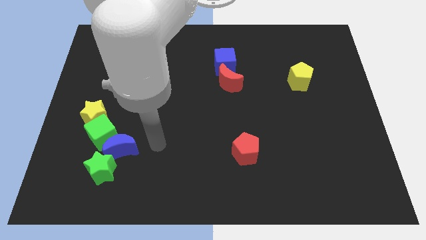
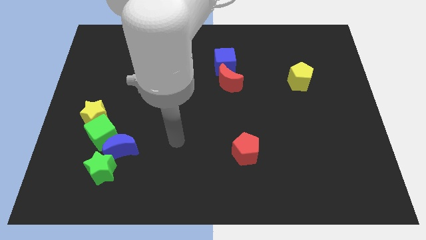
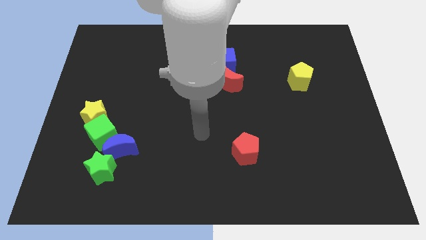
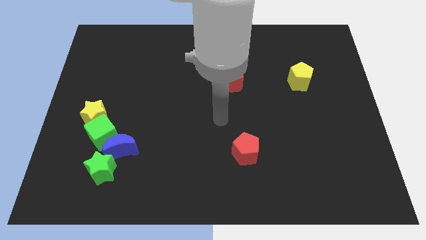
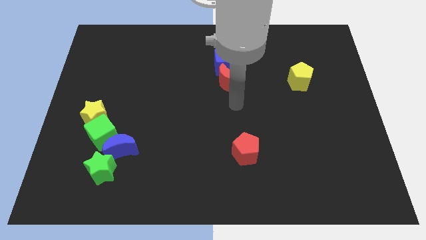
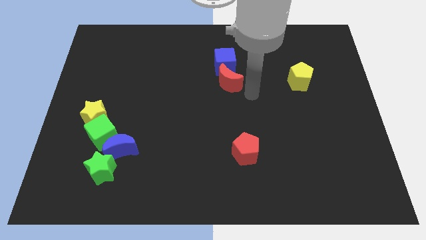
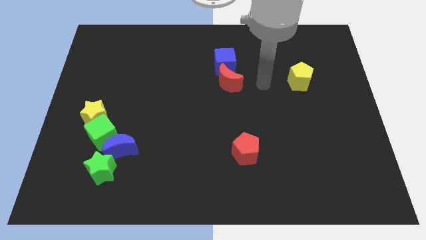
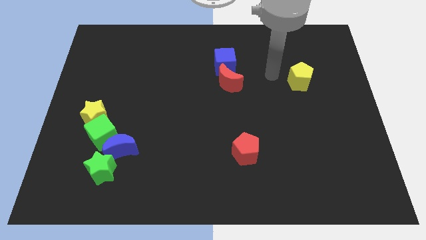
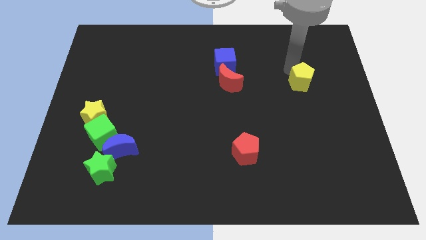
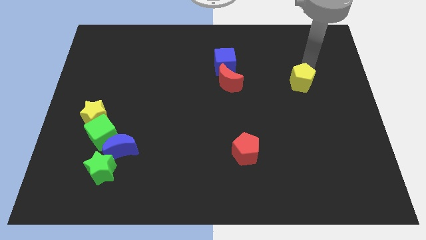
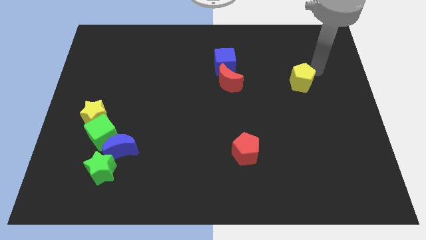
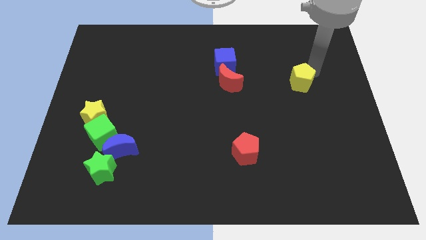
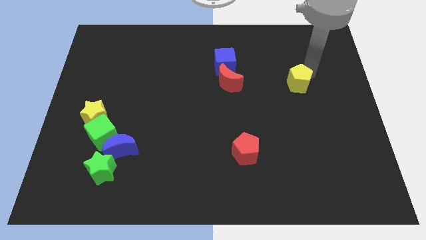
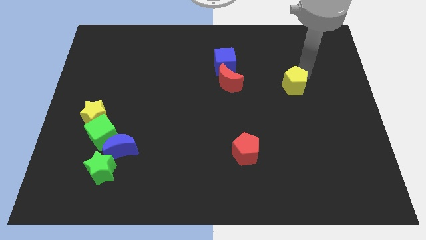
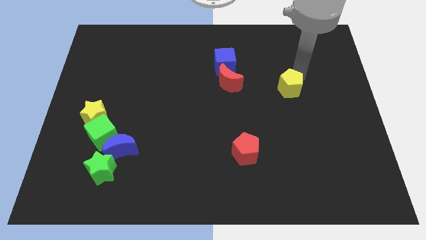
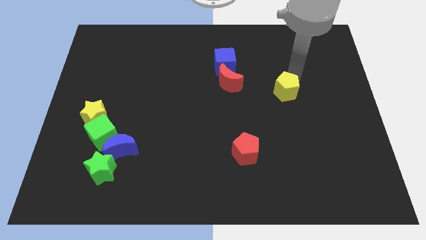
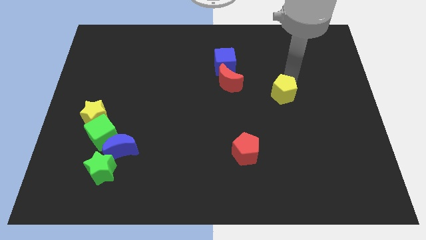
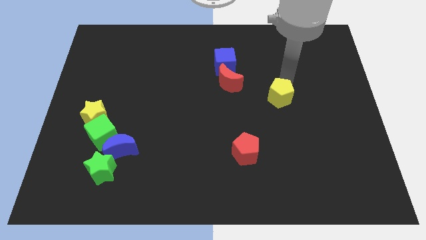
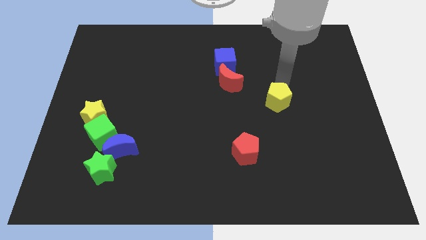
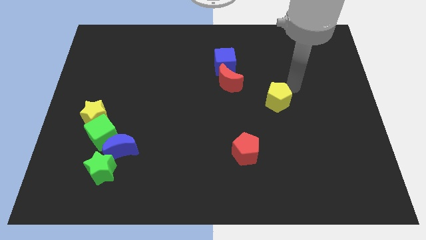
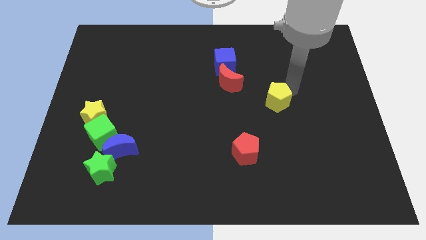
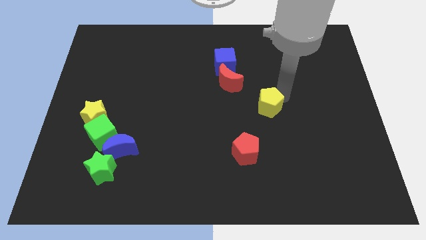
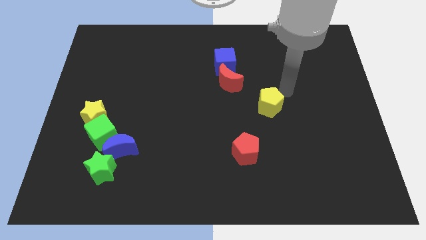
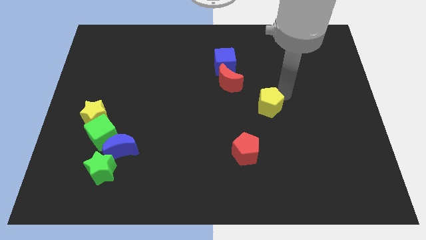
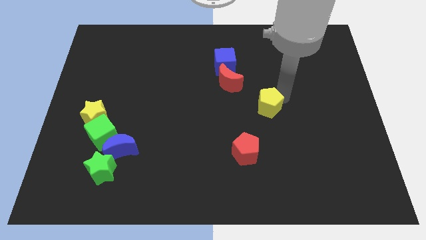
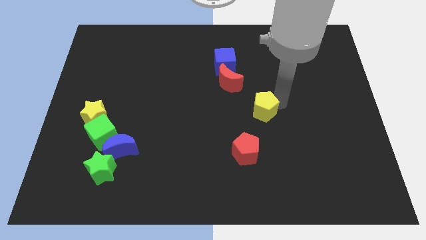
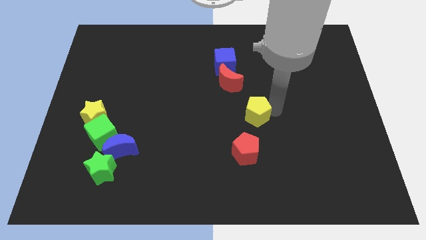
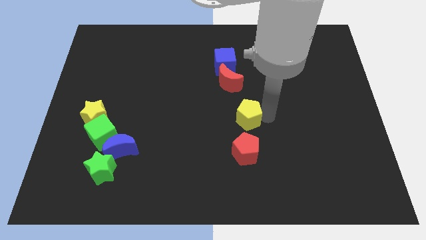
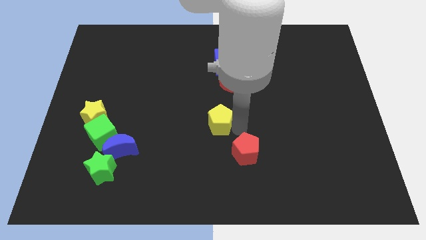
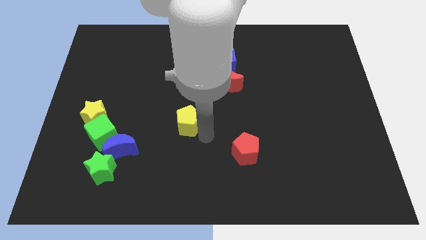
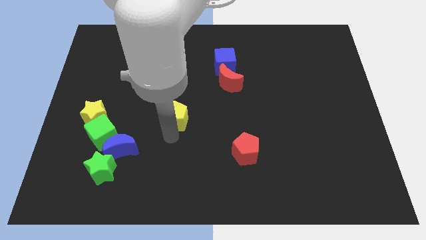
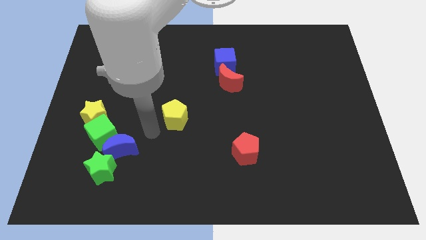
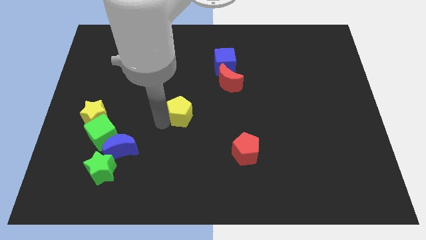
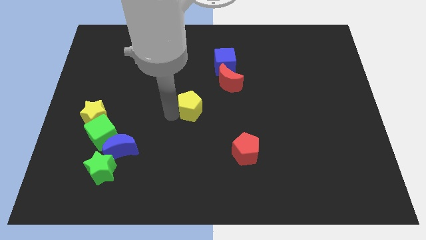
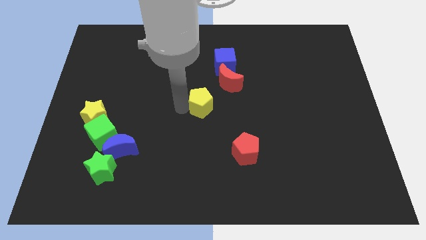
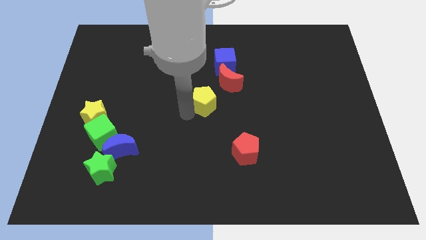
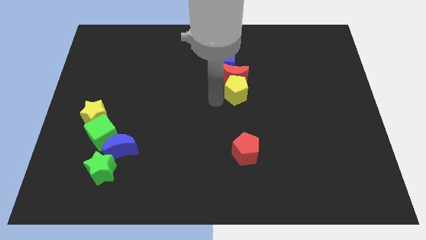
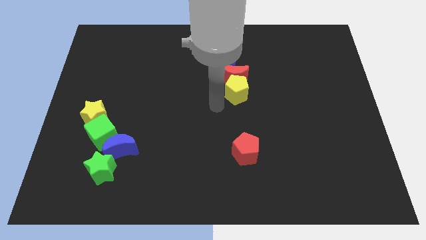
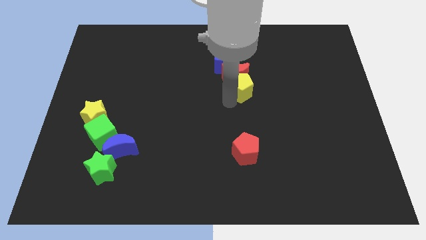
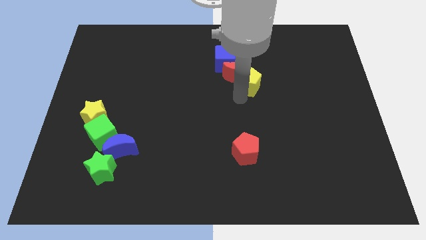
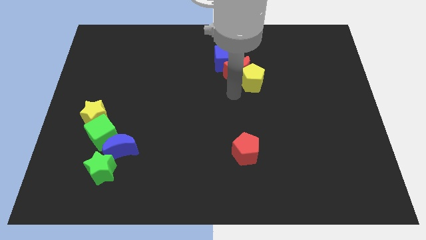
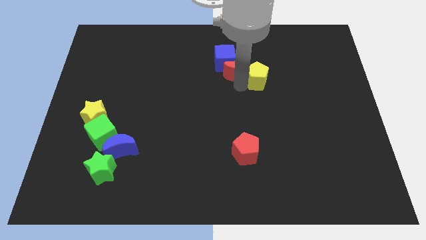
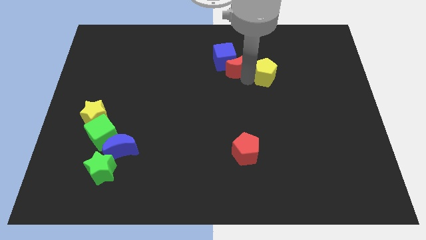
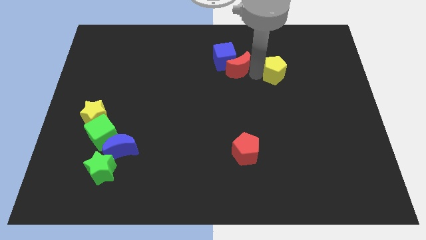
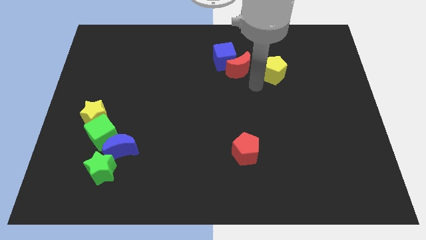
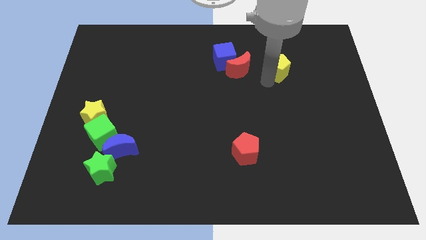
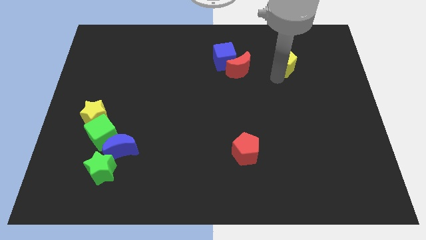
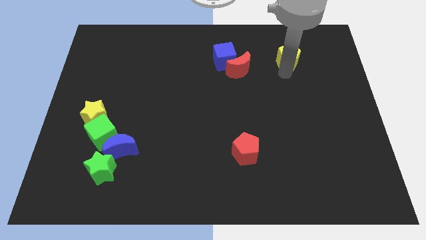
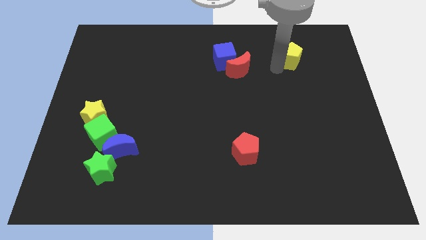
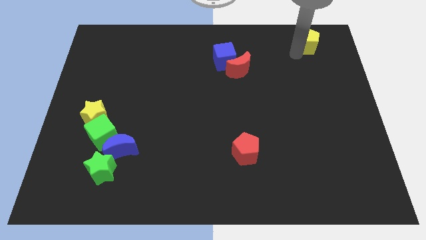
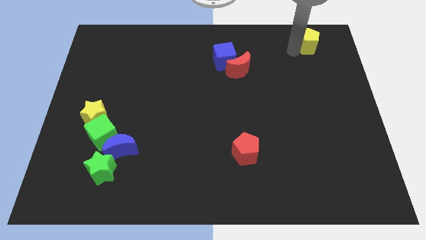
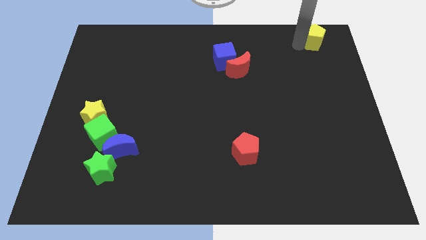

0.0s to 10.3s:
slide the yellow pentagon to the top right corner

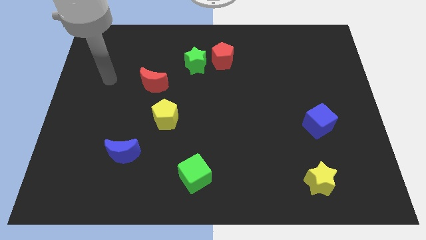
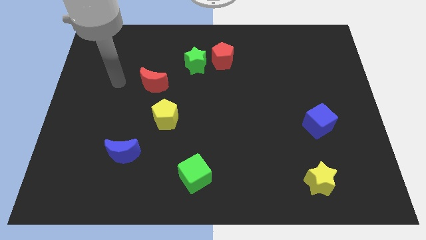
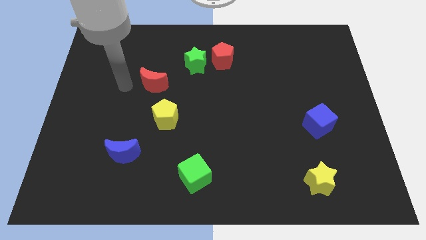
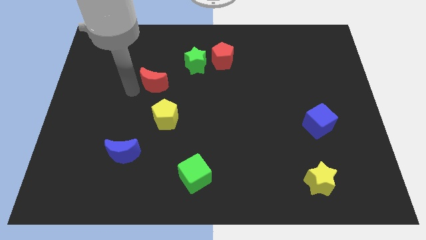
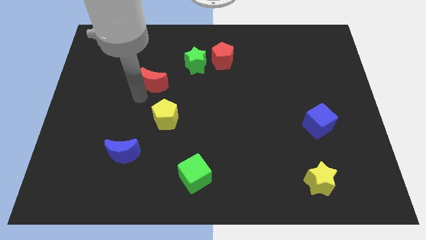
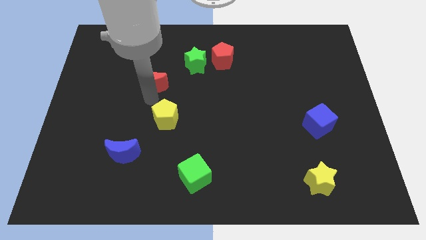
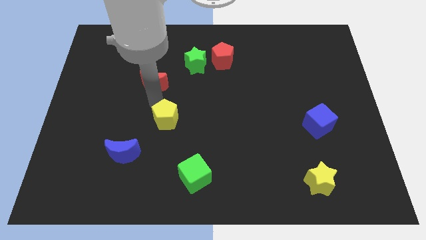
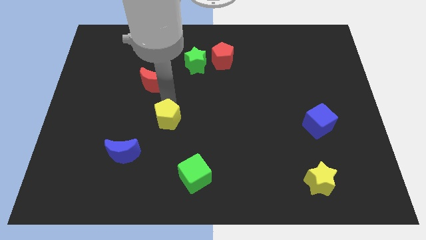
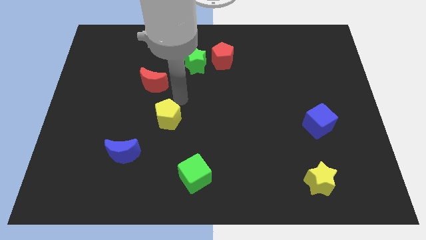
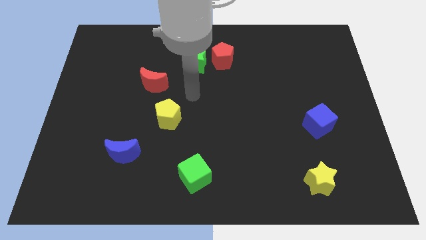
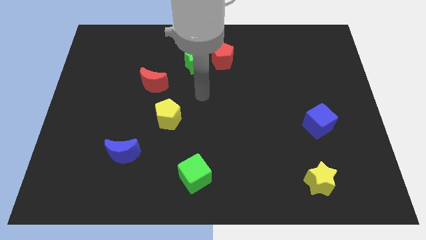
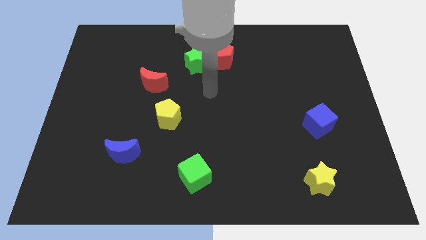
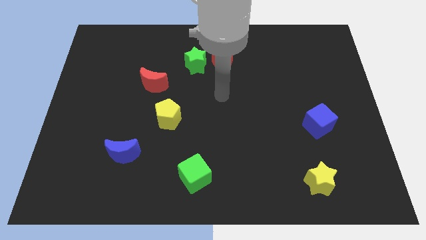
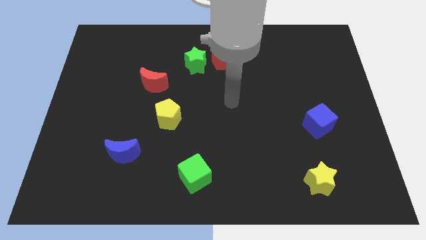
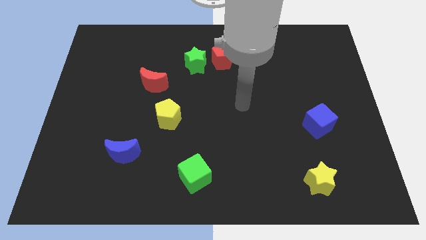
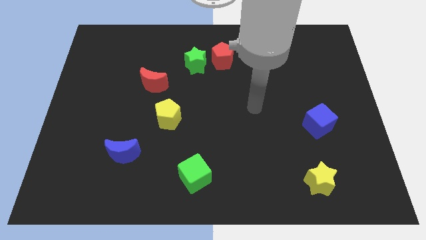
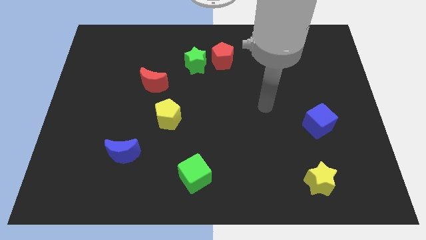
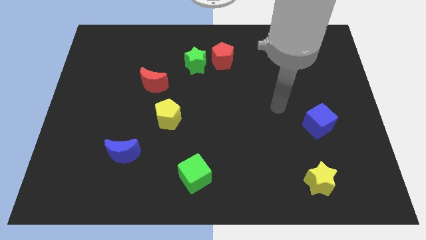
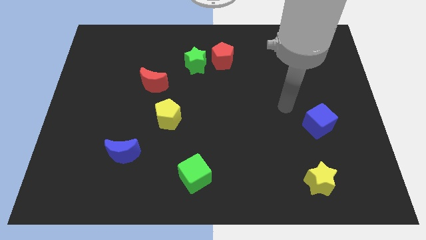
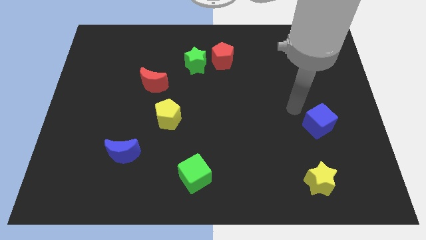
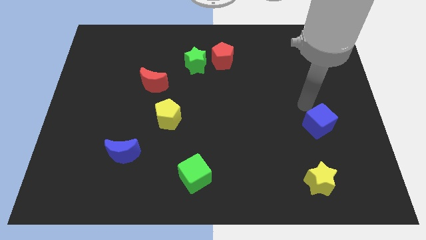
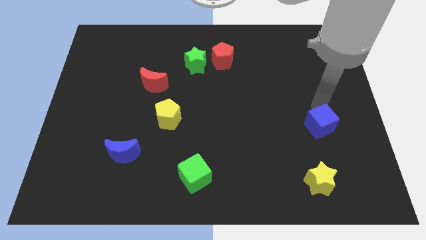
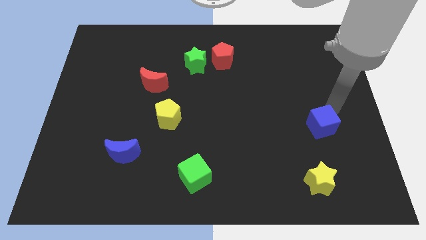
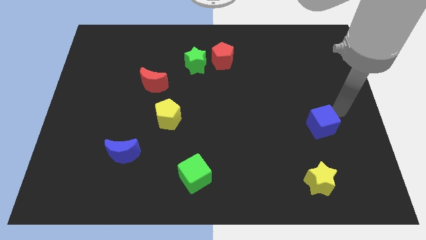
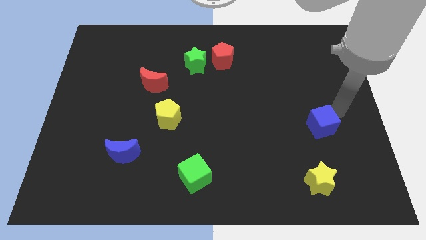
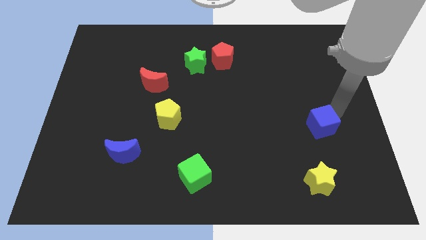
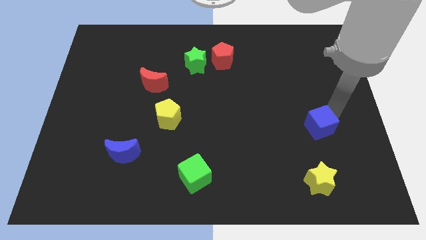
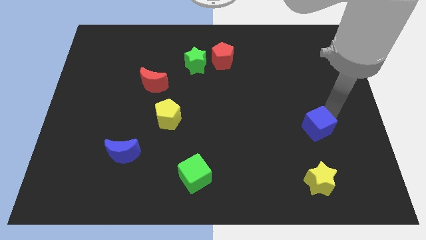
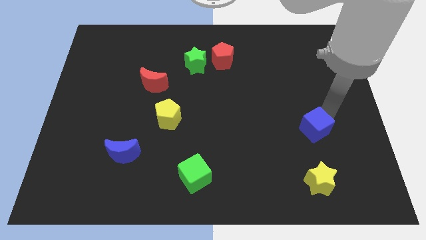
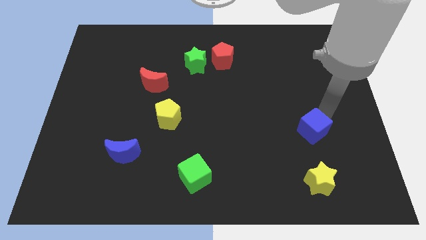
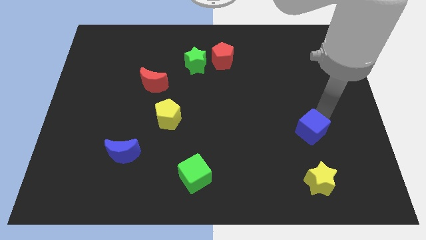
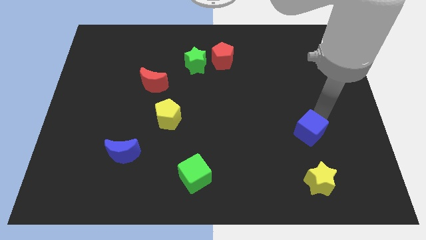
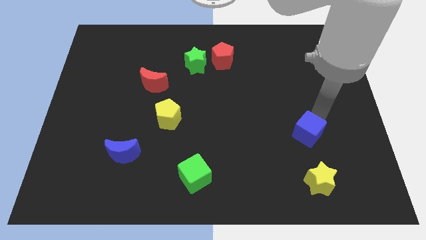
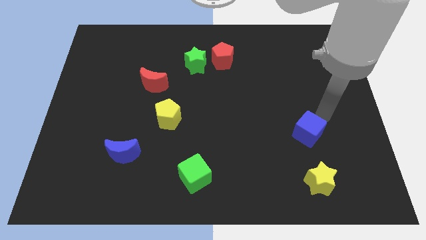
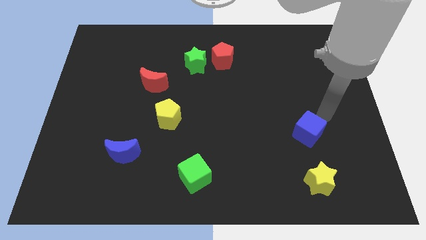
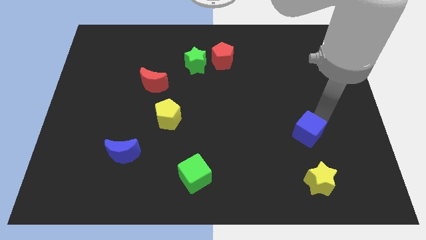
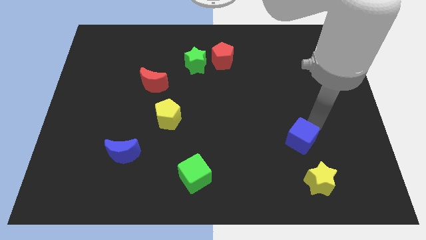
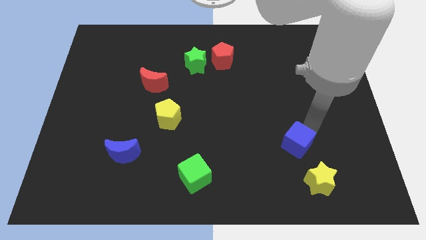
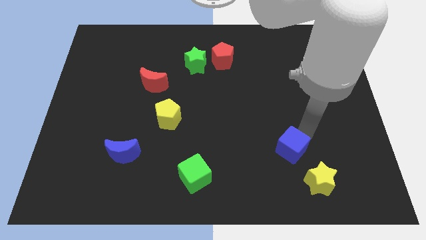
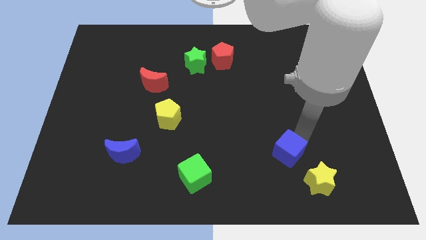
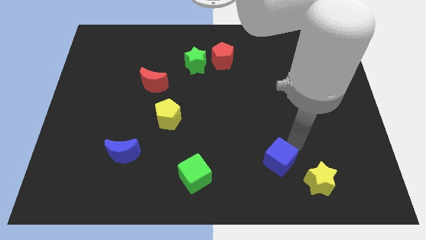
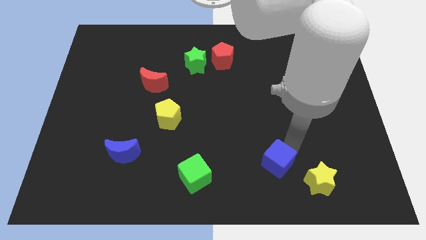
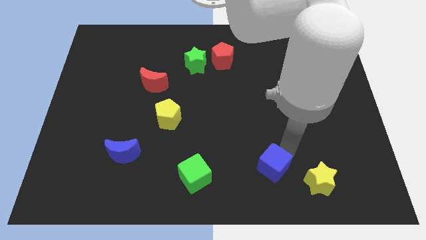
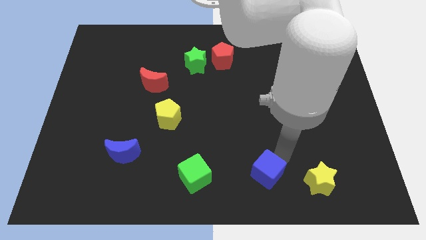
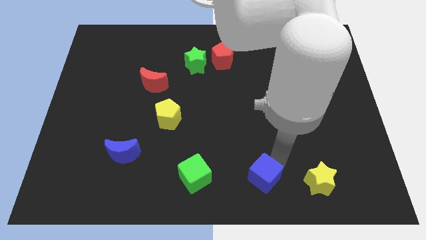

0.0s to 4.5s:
slide the blue cube to the bottom
